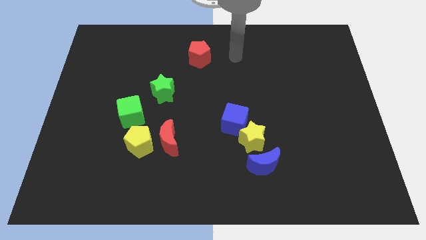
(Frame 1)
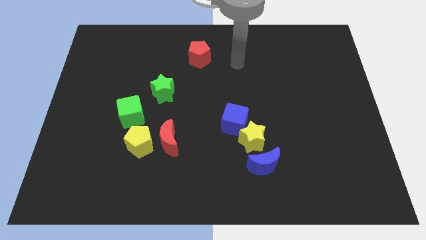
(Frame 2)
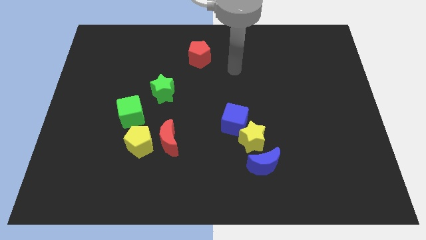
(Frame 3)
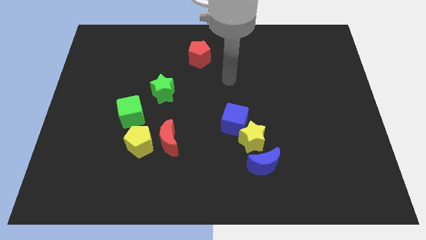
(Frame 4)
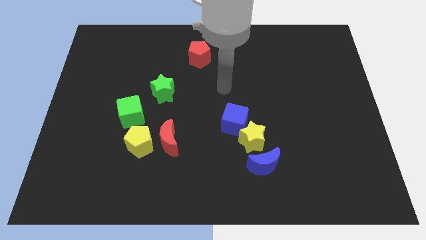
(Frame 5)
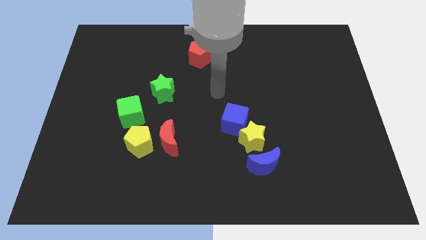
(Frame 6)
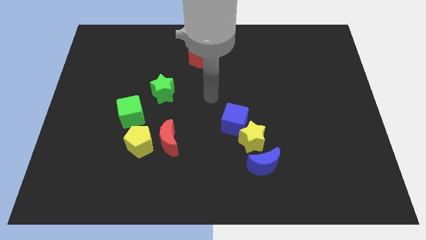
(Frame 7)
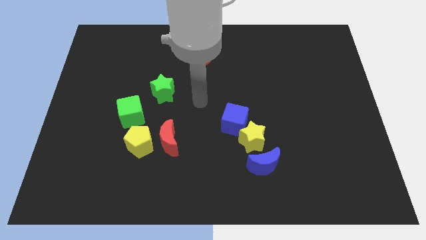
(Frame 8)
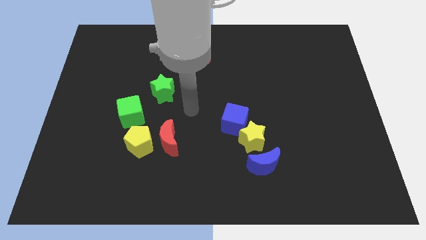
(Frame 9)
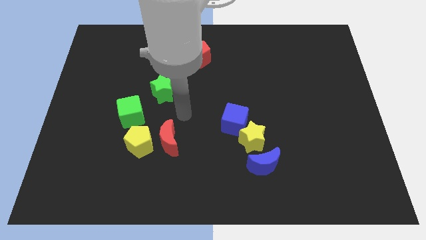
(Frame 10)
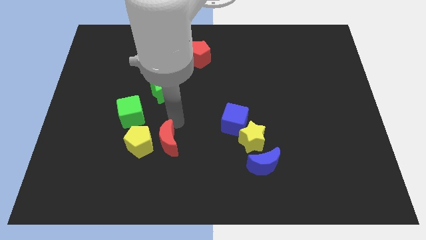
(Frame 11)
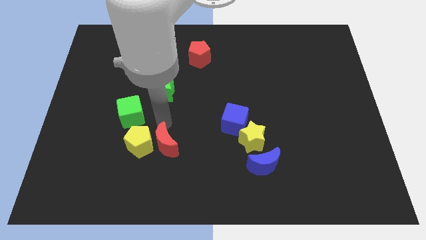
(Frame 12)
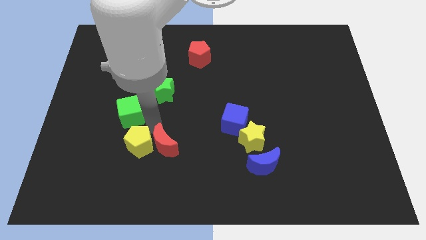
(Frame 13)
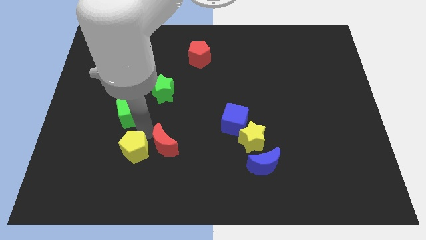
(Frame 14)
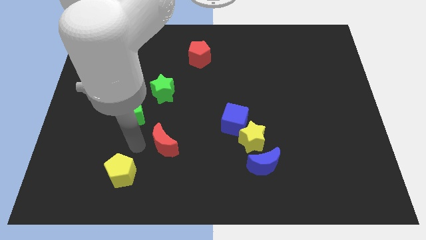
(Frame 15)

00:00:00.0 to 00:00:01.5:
separate the red moon from the yellow pentagon

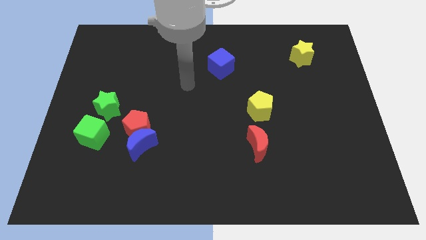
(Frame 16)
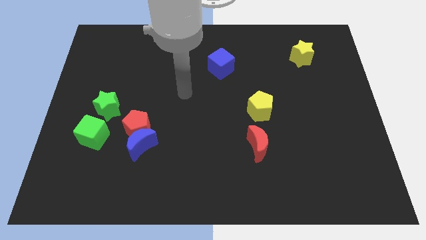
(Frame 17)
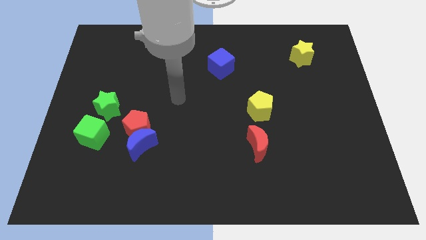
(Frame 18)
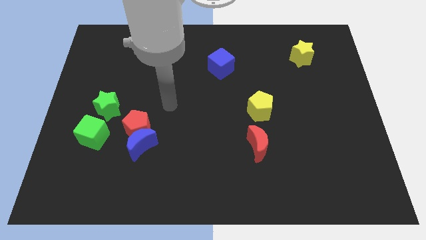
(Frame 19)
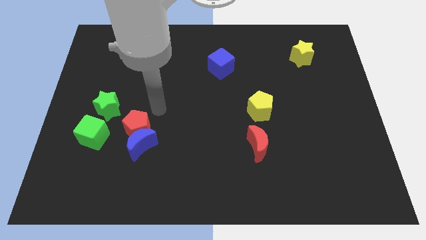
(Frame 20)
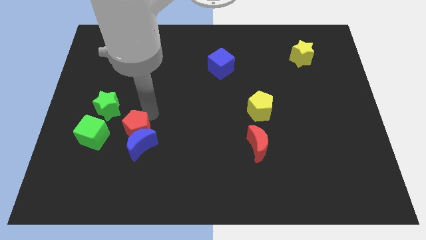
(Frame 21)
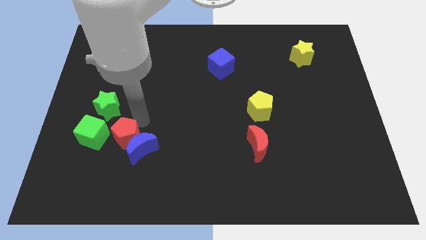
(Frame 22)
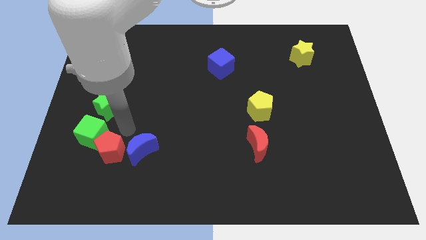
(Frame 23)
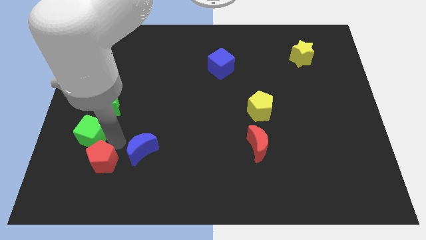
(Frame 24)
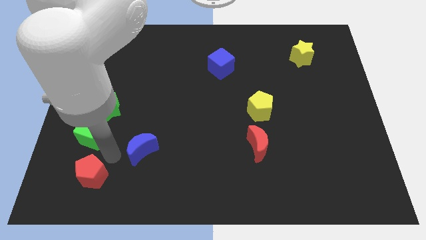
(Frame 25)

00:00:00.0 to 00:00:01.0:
pull the blue moon apart from the red pentagon

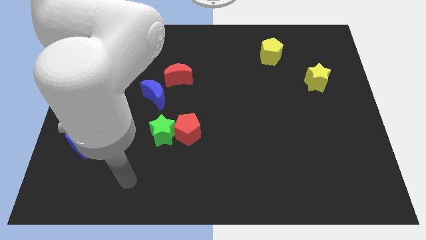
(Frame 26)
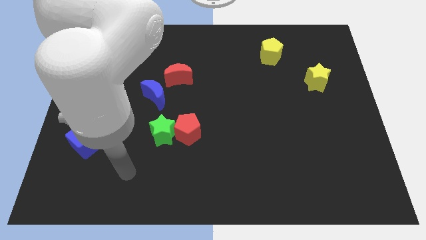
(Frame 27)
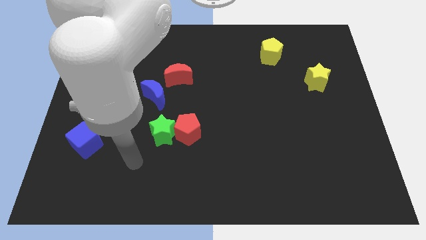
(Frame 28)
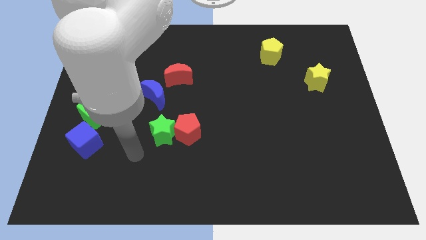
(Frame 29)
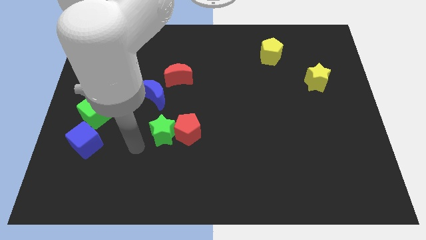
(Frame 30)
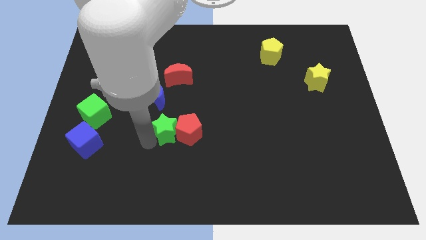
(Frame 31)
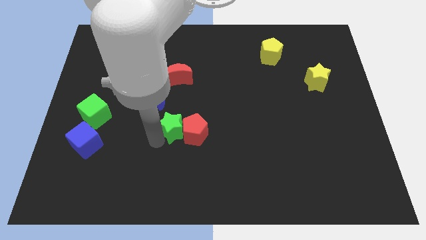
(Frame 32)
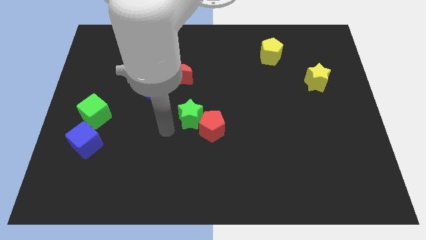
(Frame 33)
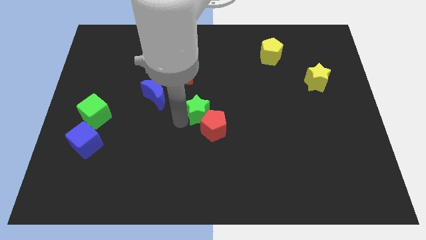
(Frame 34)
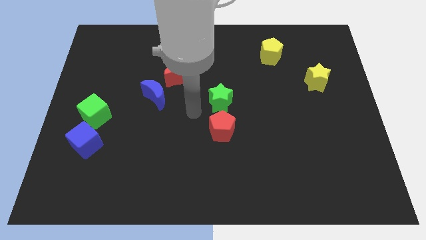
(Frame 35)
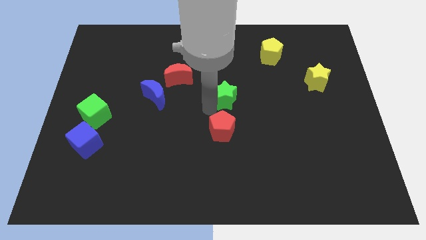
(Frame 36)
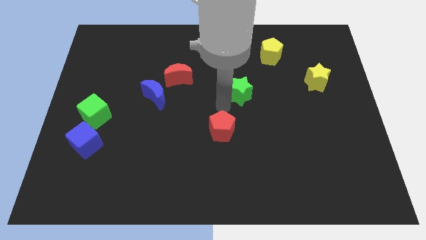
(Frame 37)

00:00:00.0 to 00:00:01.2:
separate the red pentagon from the green star

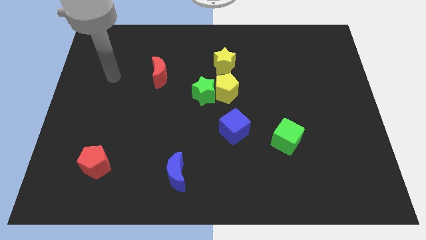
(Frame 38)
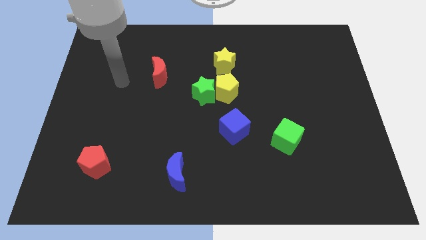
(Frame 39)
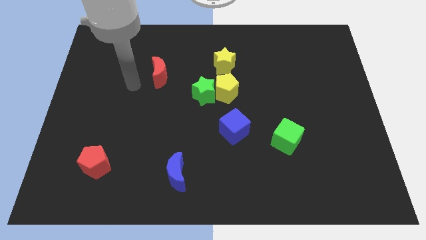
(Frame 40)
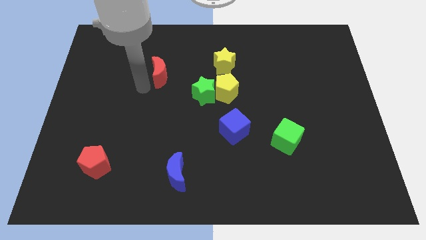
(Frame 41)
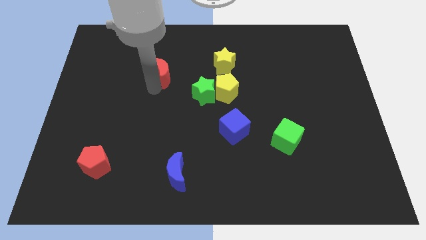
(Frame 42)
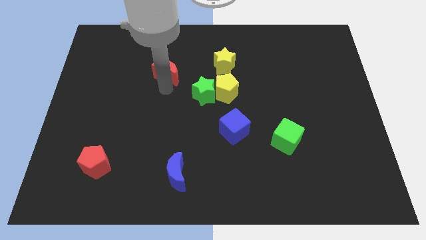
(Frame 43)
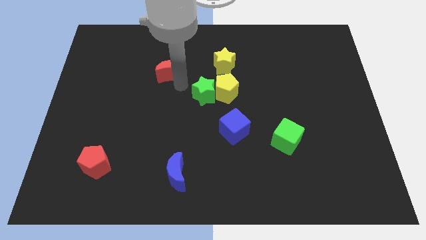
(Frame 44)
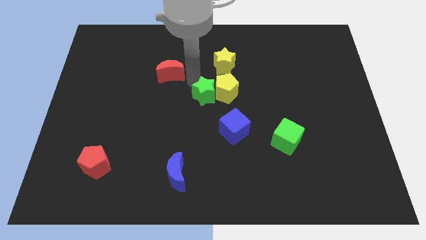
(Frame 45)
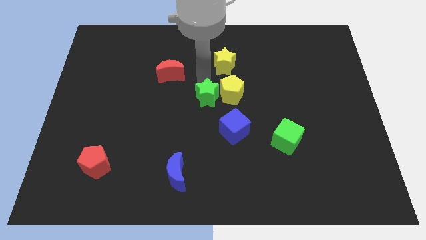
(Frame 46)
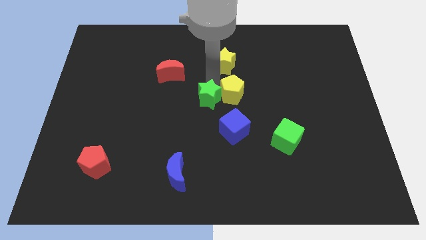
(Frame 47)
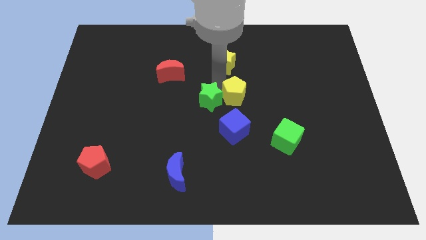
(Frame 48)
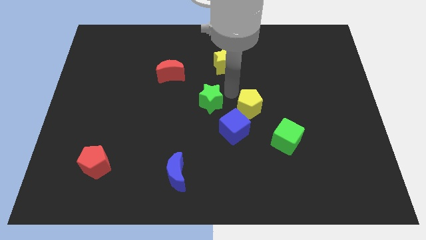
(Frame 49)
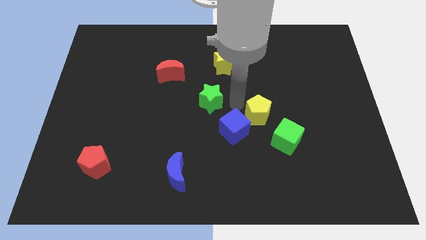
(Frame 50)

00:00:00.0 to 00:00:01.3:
pull the green star apart from the yellow pentagon

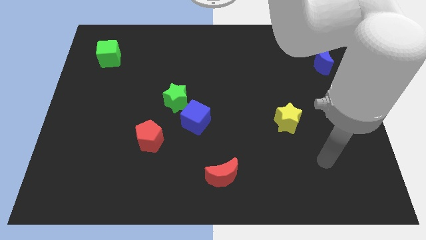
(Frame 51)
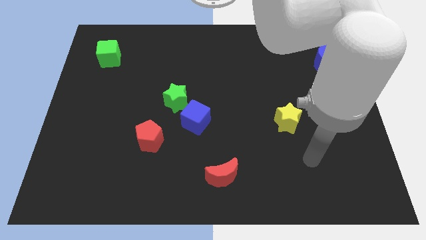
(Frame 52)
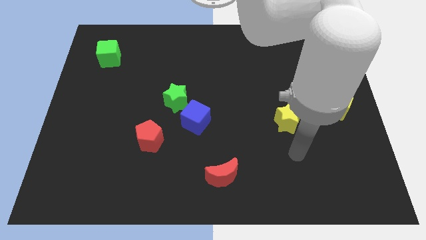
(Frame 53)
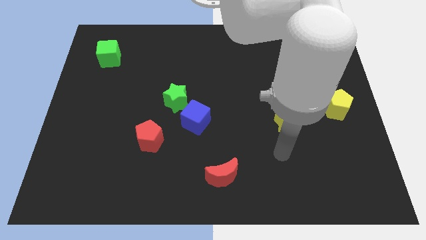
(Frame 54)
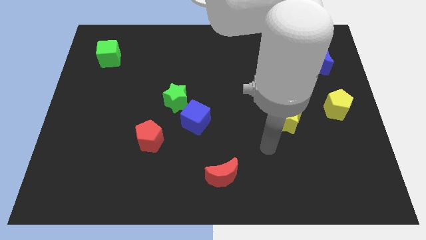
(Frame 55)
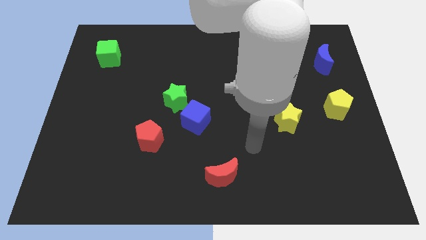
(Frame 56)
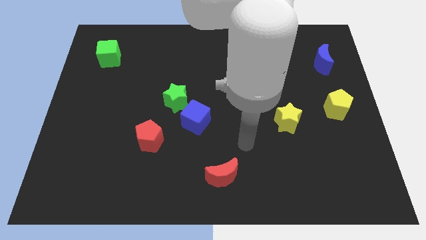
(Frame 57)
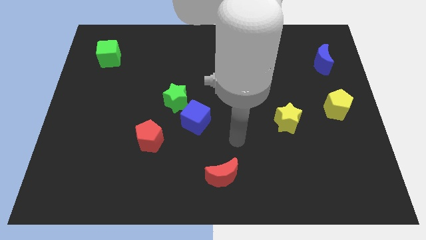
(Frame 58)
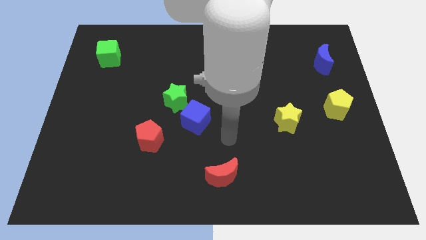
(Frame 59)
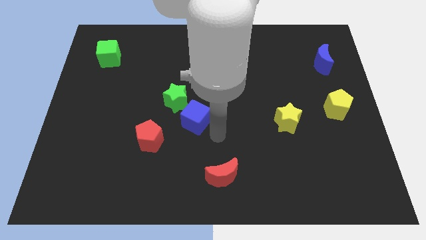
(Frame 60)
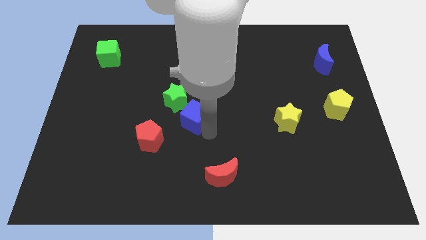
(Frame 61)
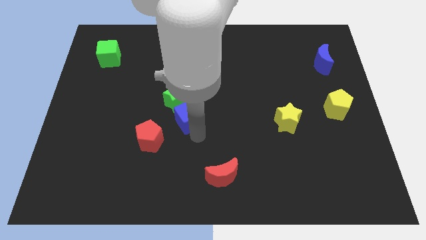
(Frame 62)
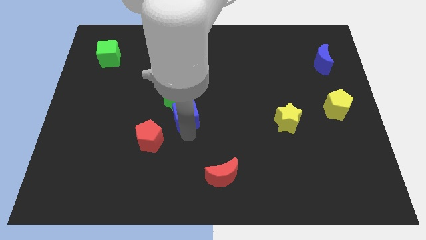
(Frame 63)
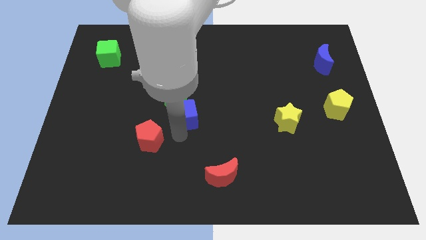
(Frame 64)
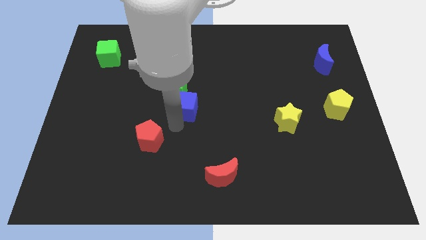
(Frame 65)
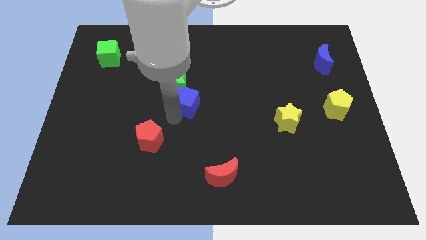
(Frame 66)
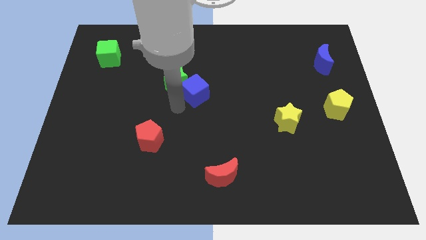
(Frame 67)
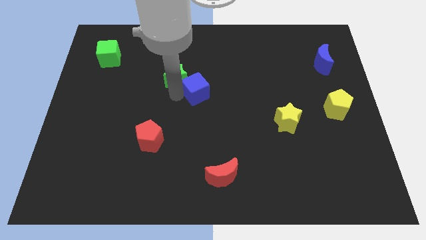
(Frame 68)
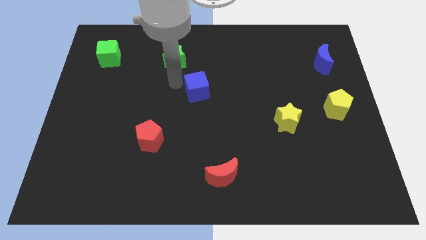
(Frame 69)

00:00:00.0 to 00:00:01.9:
separate the blue cube from the green star

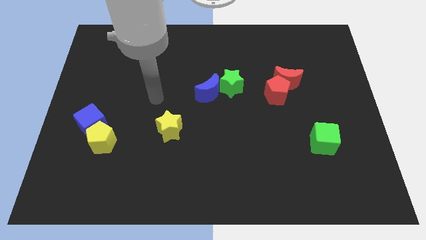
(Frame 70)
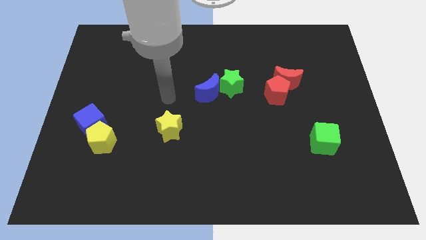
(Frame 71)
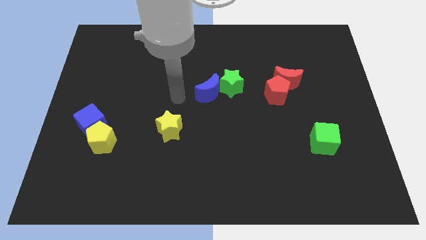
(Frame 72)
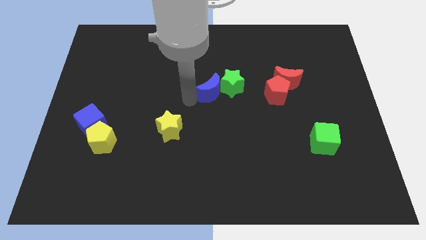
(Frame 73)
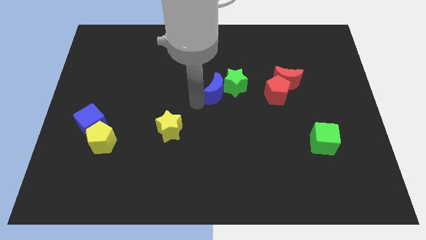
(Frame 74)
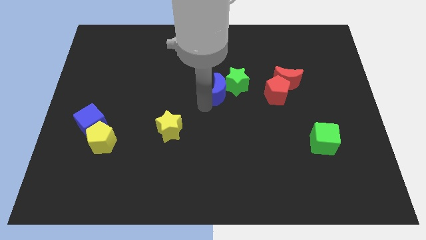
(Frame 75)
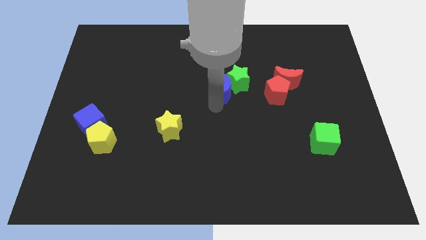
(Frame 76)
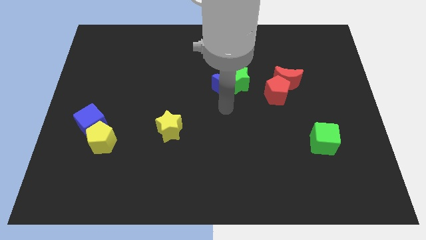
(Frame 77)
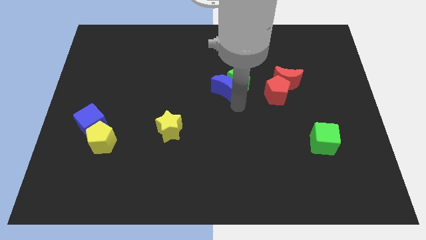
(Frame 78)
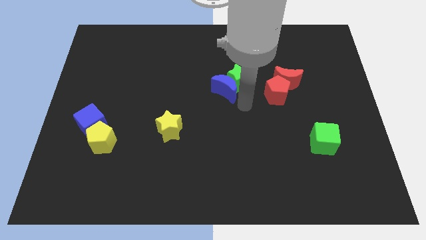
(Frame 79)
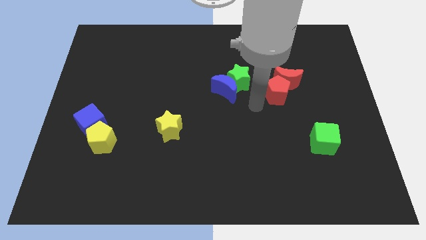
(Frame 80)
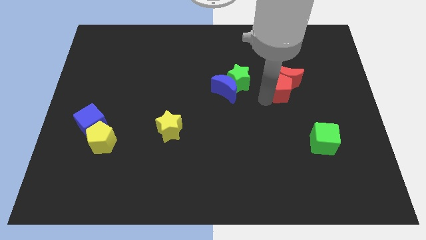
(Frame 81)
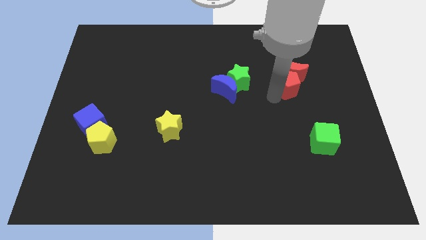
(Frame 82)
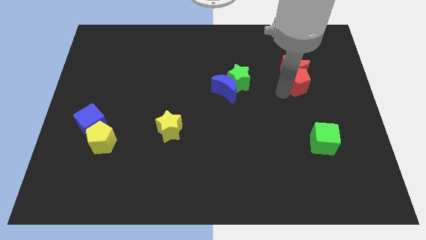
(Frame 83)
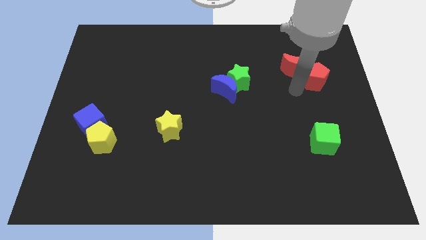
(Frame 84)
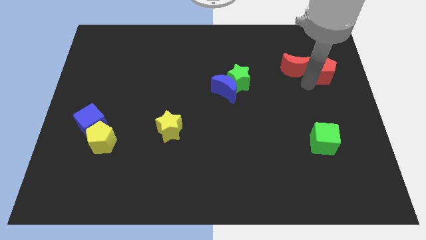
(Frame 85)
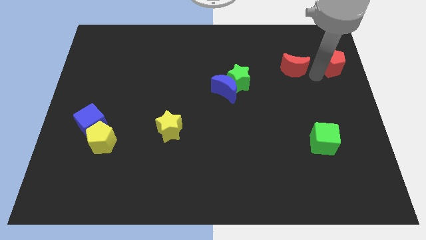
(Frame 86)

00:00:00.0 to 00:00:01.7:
move the red moon away from the red pentagon

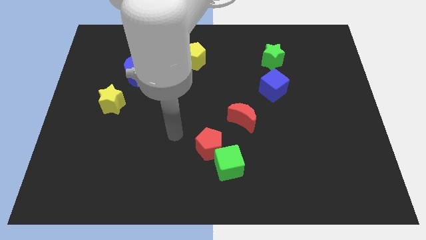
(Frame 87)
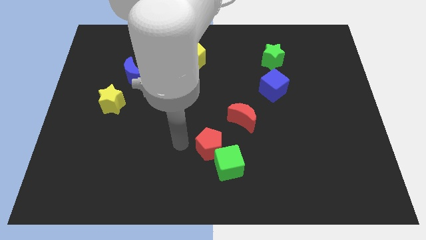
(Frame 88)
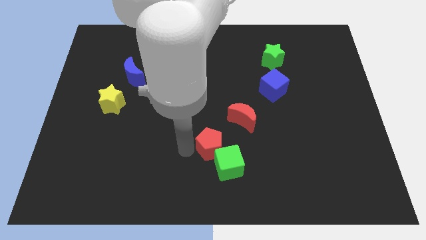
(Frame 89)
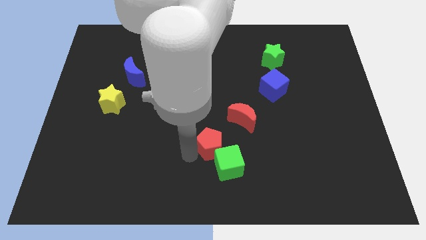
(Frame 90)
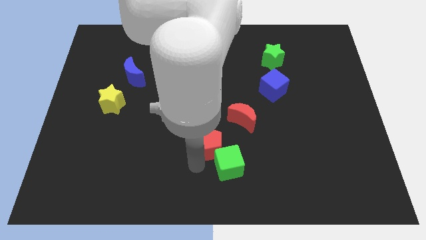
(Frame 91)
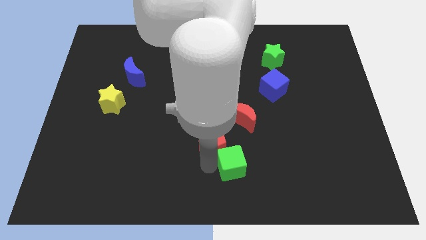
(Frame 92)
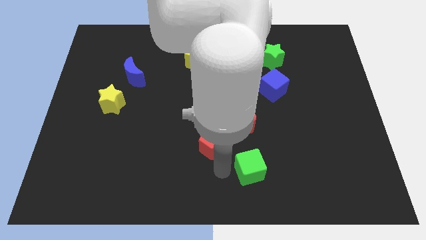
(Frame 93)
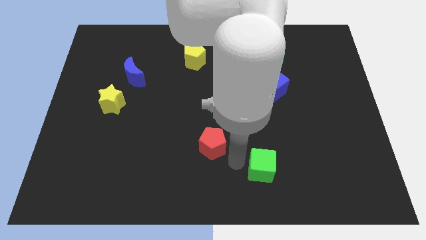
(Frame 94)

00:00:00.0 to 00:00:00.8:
move the red pentagon away from the green cube
